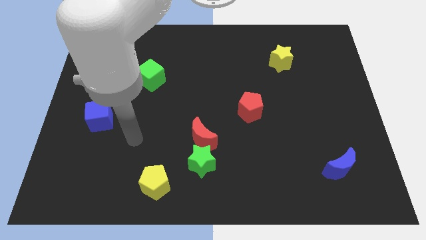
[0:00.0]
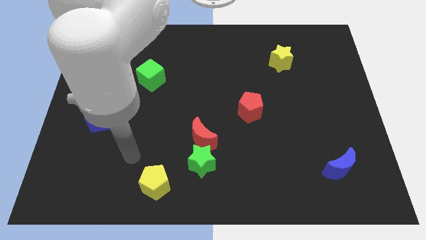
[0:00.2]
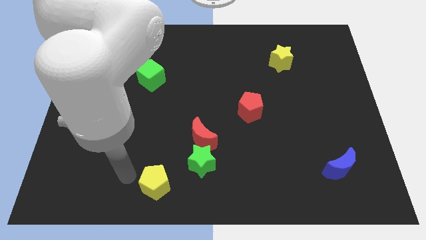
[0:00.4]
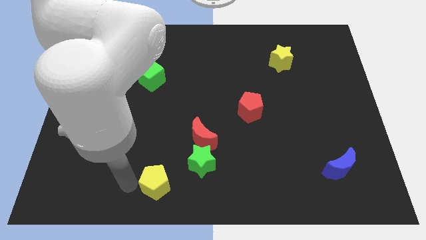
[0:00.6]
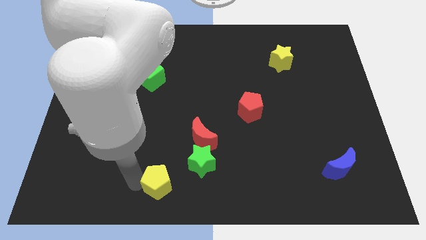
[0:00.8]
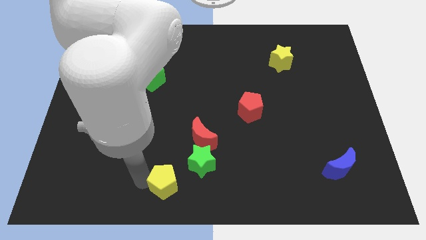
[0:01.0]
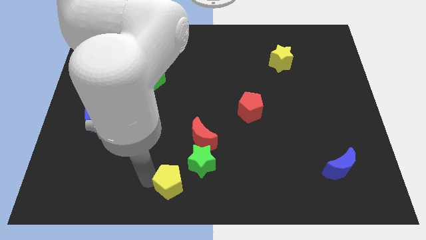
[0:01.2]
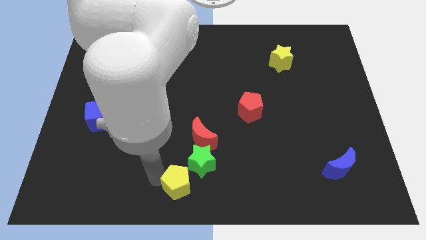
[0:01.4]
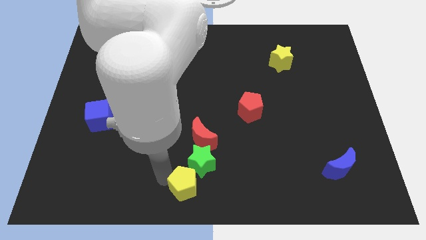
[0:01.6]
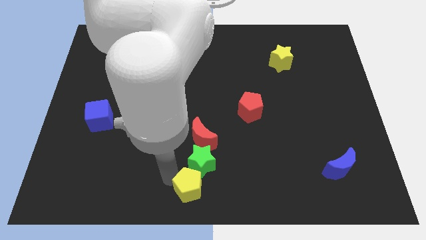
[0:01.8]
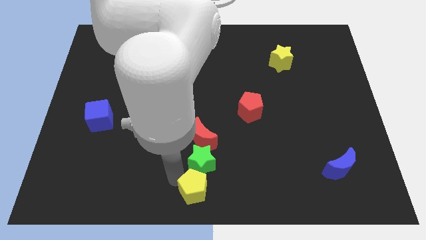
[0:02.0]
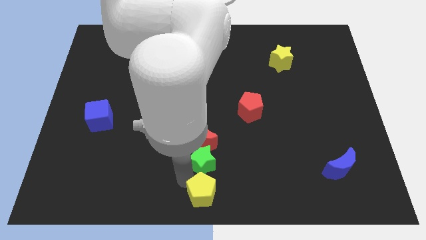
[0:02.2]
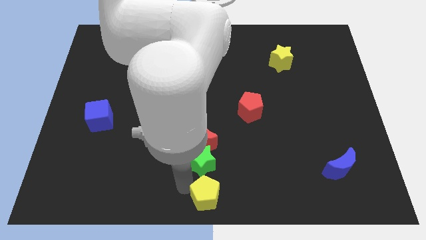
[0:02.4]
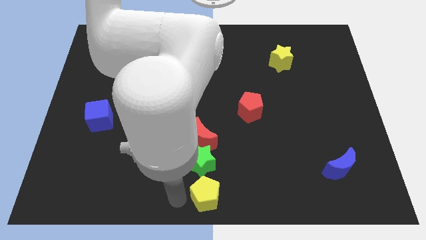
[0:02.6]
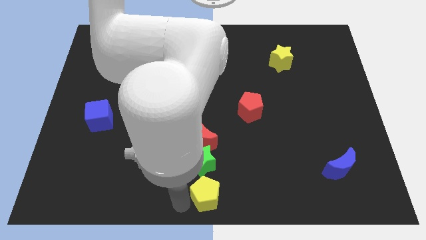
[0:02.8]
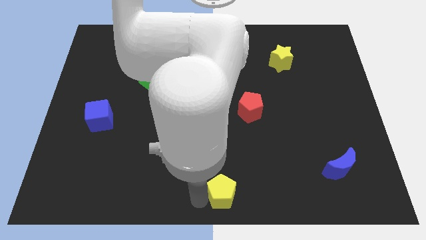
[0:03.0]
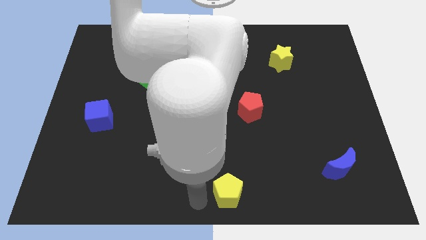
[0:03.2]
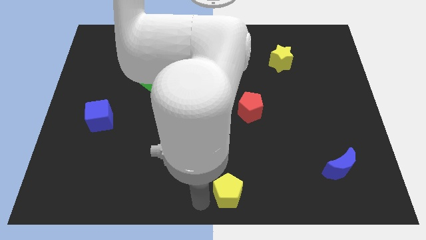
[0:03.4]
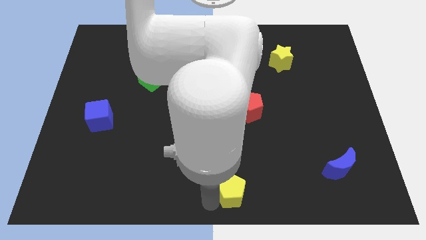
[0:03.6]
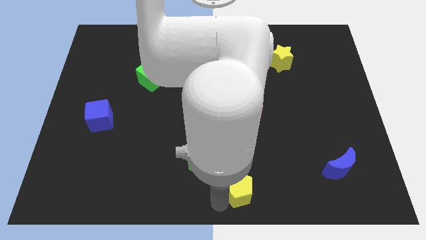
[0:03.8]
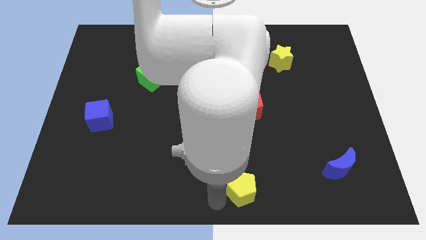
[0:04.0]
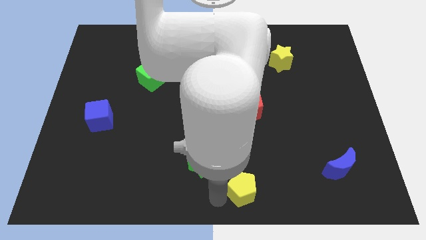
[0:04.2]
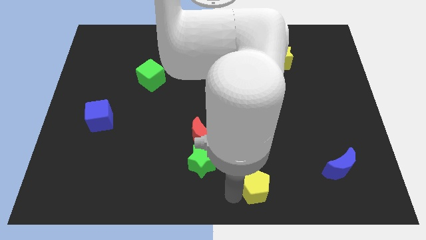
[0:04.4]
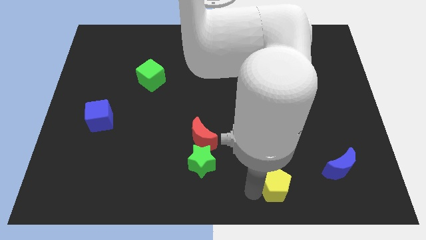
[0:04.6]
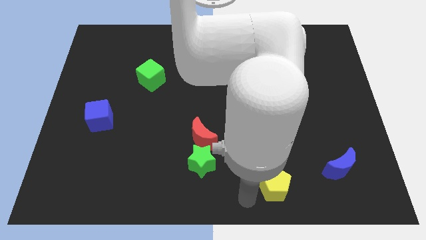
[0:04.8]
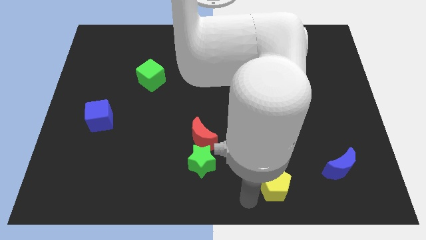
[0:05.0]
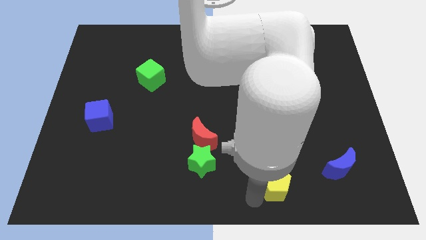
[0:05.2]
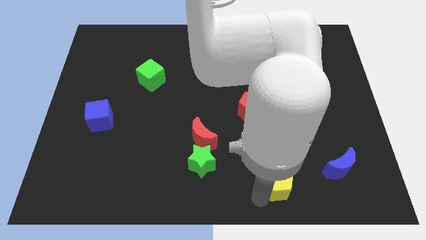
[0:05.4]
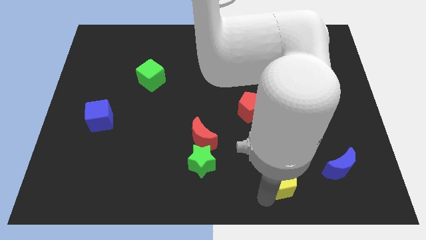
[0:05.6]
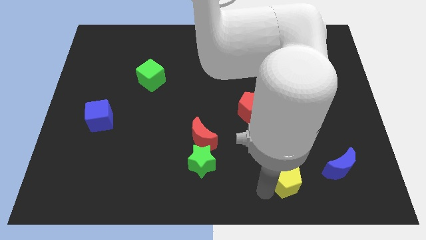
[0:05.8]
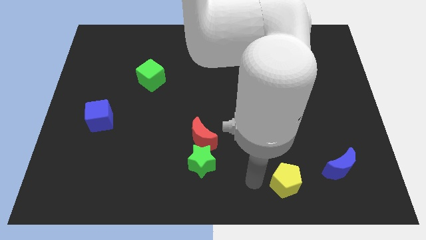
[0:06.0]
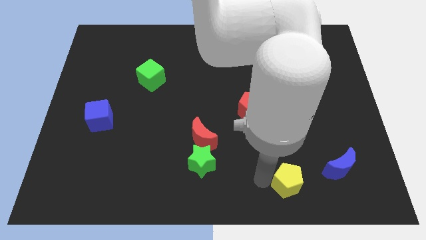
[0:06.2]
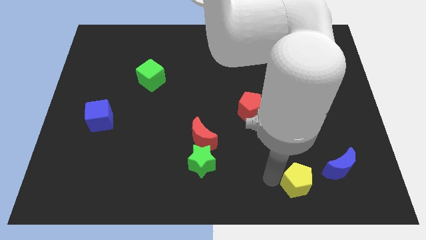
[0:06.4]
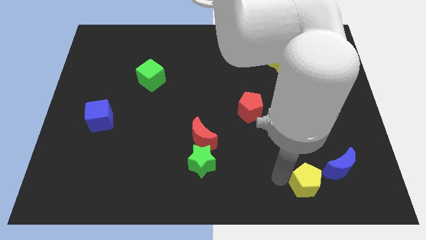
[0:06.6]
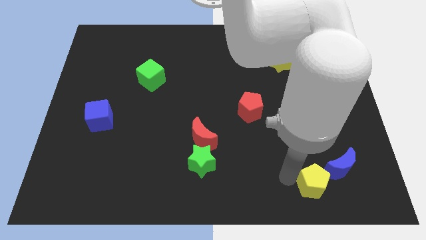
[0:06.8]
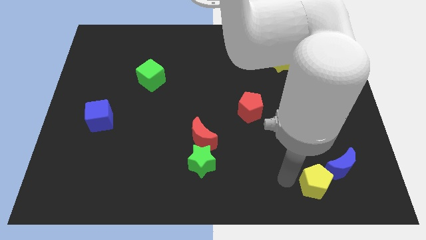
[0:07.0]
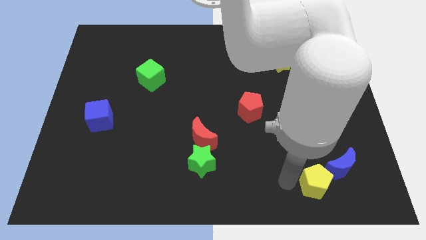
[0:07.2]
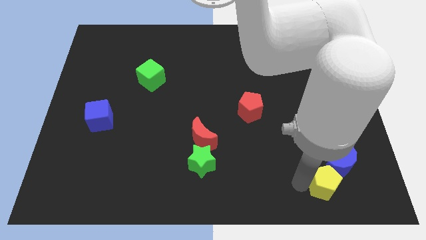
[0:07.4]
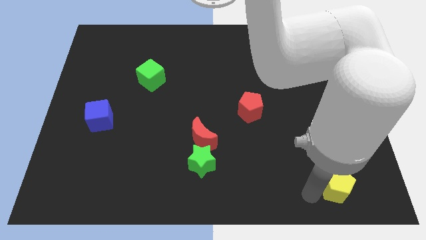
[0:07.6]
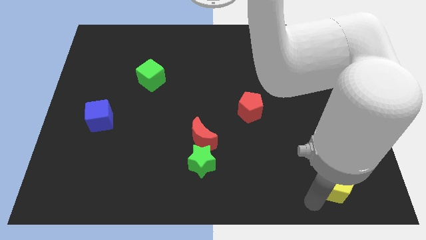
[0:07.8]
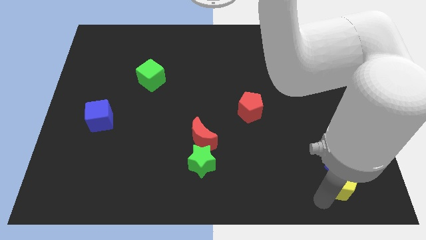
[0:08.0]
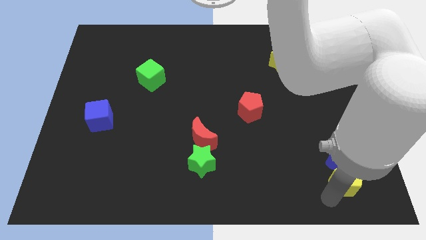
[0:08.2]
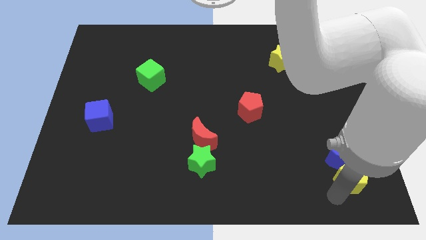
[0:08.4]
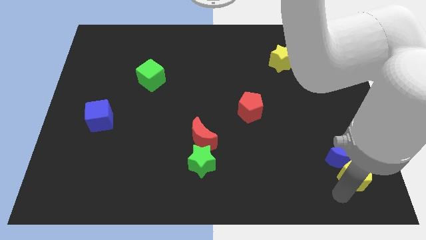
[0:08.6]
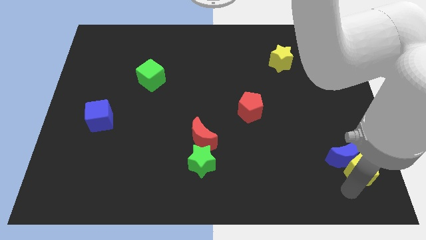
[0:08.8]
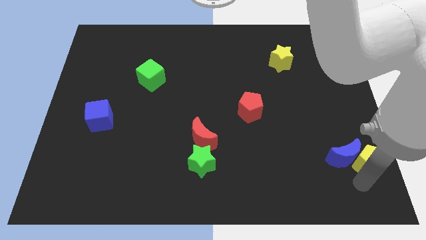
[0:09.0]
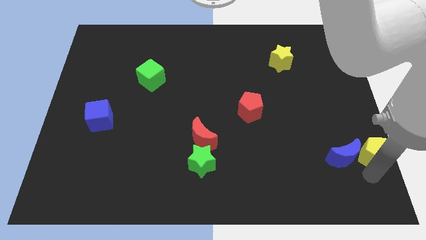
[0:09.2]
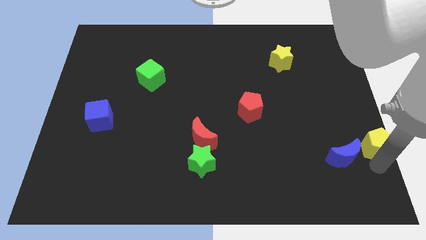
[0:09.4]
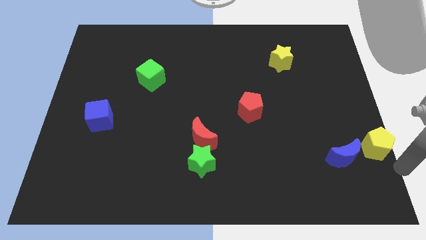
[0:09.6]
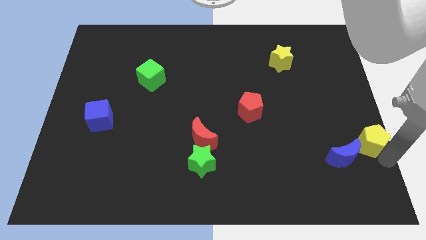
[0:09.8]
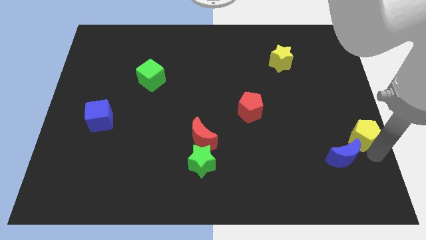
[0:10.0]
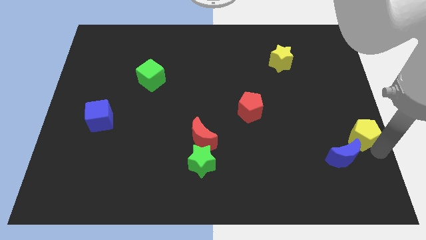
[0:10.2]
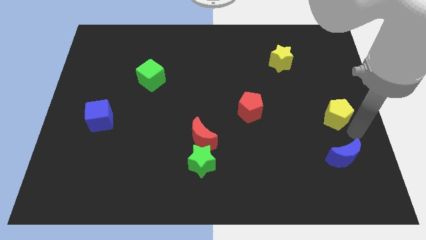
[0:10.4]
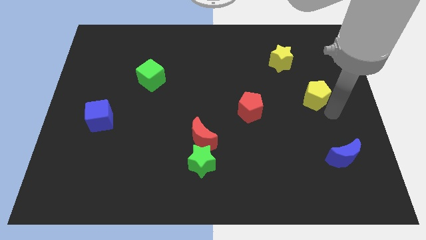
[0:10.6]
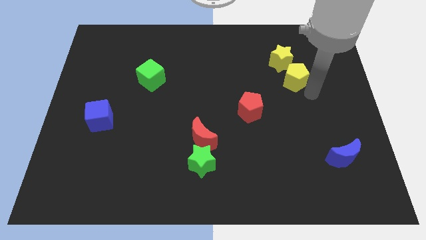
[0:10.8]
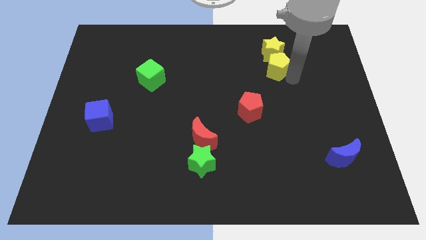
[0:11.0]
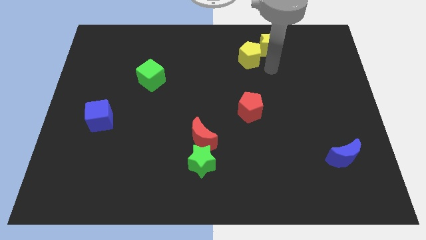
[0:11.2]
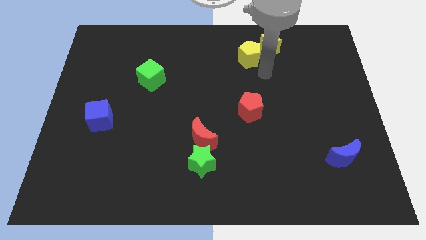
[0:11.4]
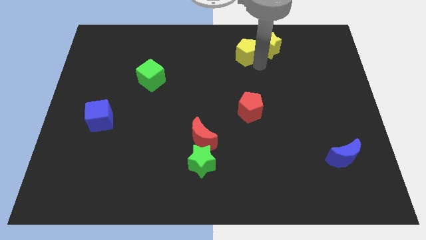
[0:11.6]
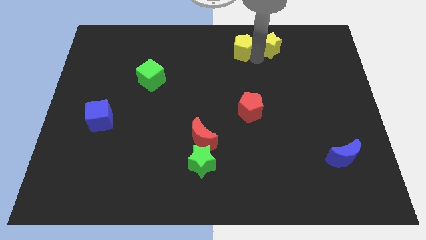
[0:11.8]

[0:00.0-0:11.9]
move the yellow pentagon to the top side
